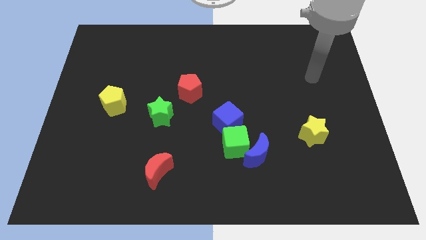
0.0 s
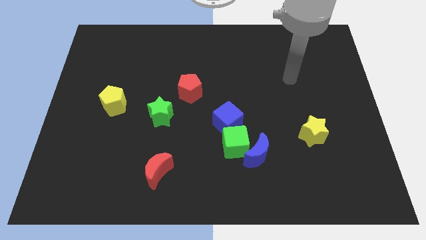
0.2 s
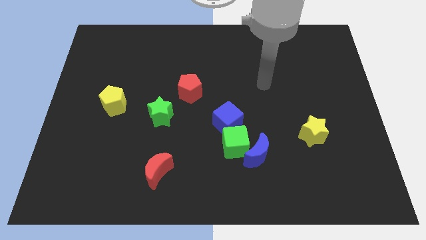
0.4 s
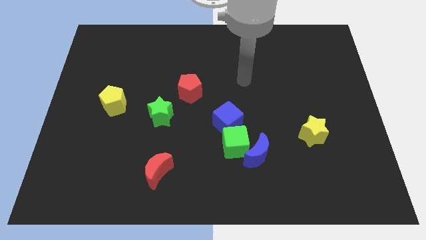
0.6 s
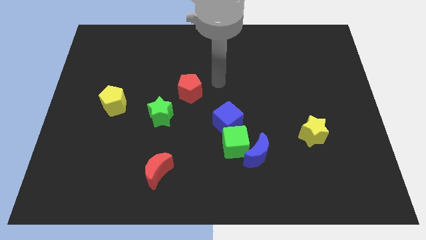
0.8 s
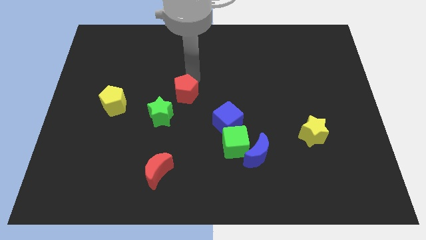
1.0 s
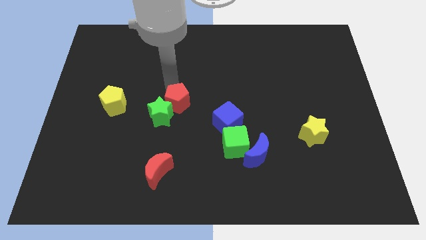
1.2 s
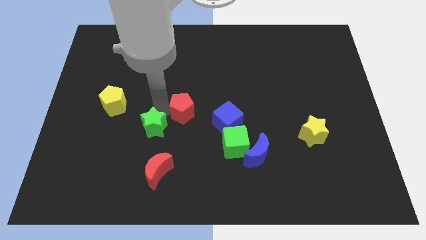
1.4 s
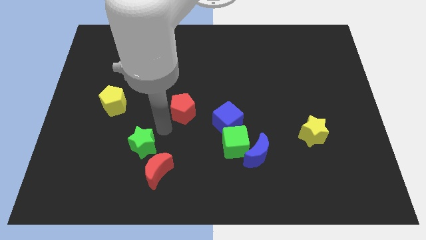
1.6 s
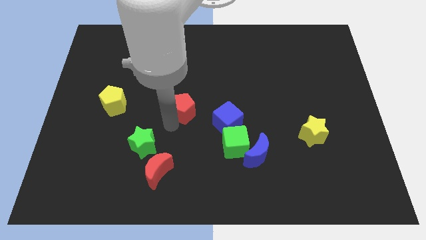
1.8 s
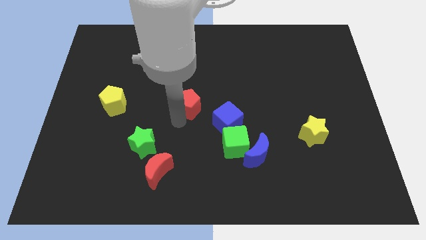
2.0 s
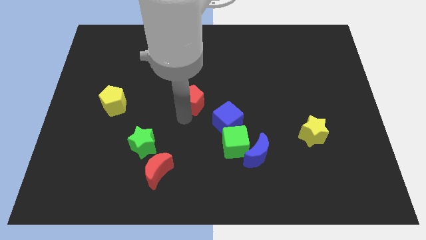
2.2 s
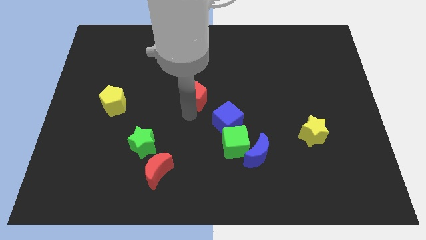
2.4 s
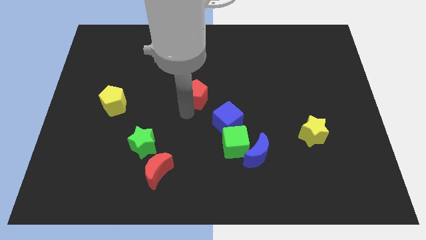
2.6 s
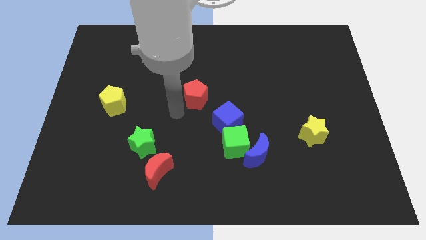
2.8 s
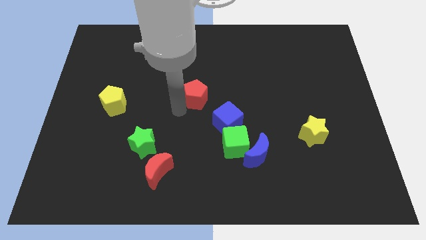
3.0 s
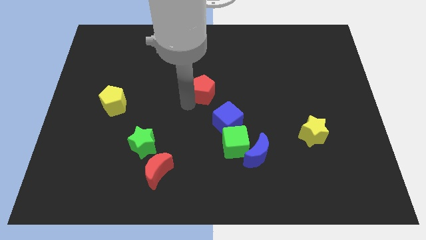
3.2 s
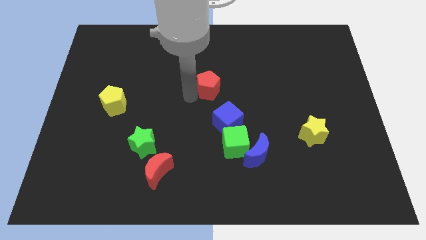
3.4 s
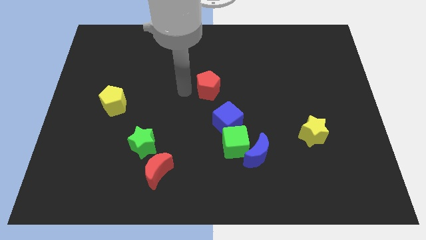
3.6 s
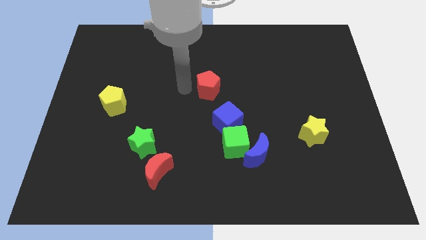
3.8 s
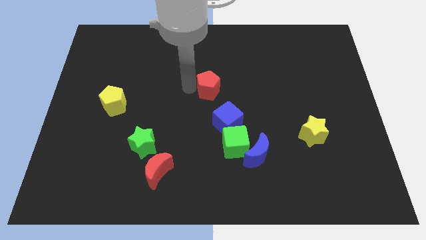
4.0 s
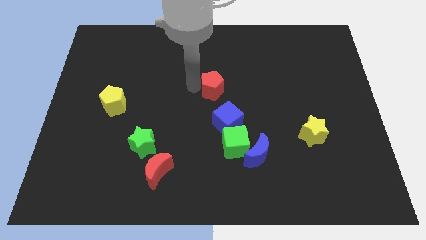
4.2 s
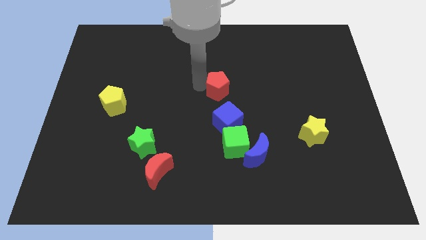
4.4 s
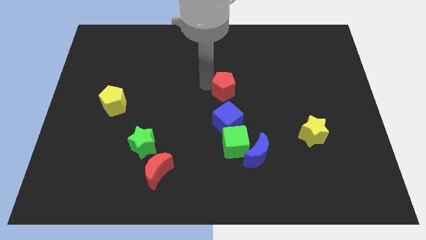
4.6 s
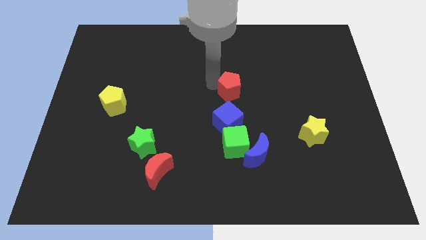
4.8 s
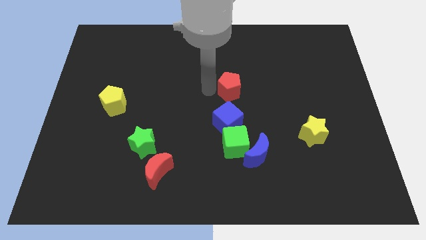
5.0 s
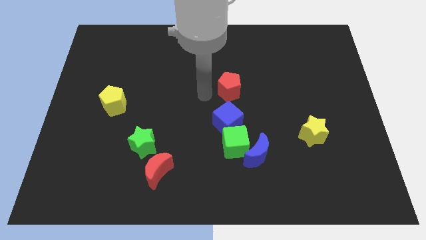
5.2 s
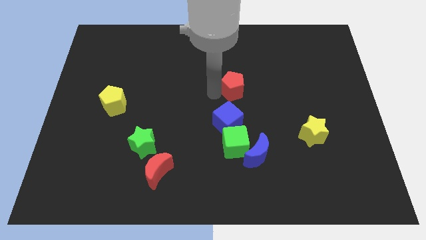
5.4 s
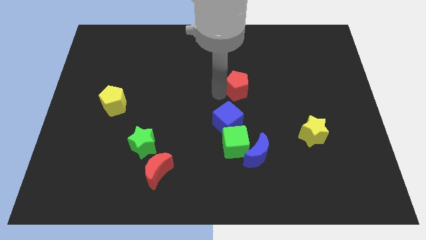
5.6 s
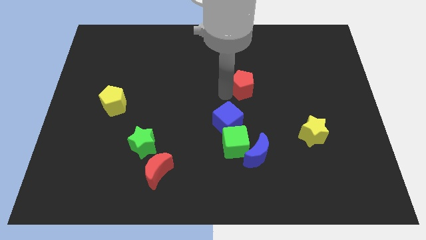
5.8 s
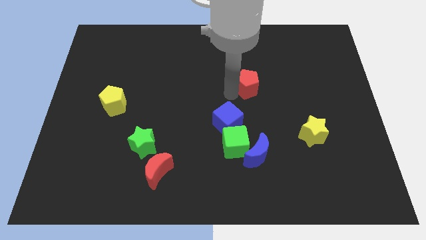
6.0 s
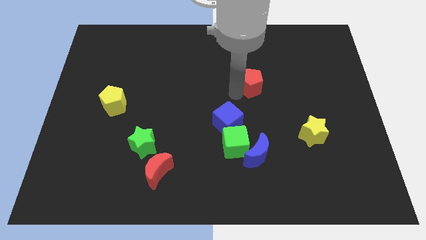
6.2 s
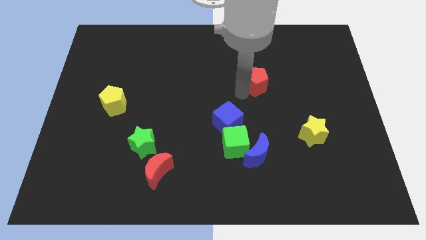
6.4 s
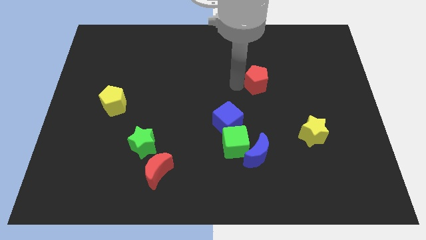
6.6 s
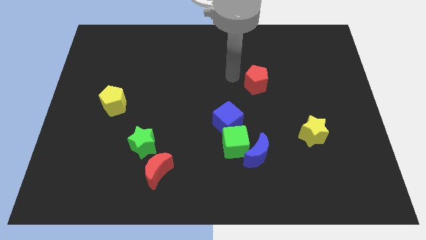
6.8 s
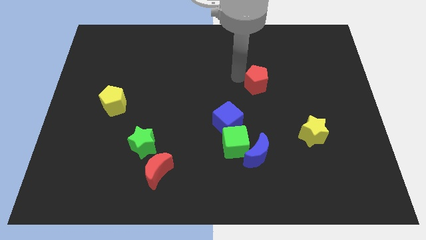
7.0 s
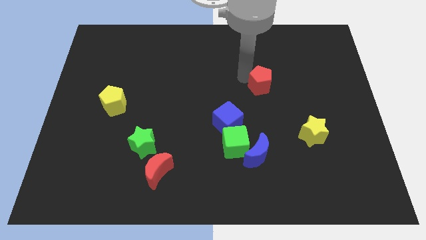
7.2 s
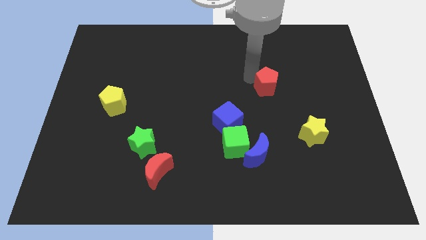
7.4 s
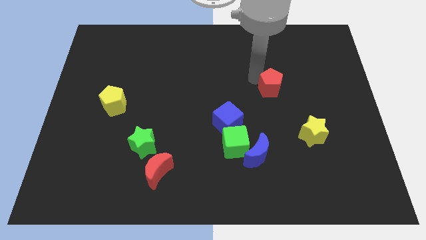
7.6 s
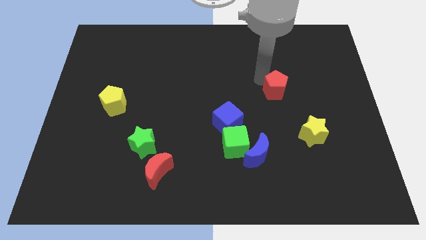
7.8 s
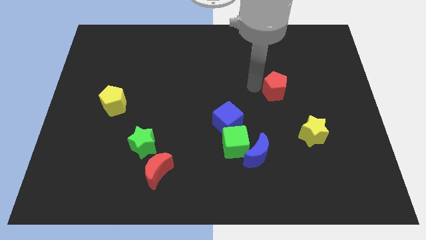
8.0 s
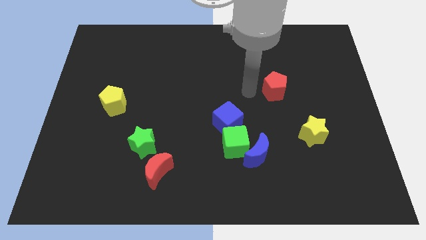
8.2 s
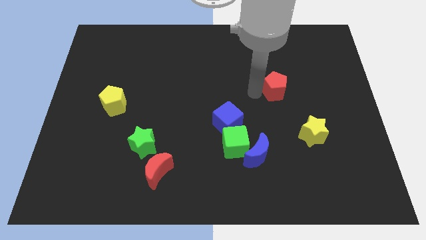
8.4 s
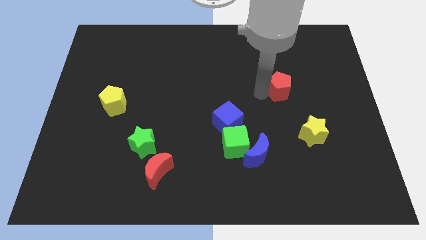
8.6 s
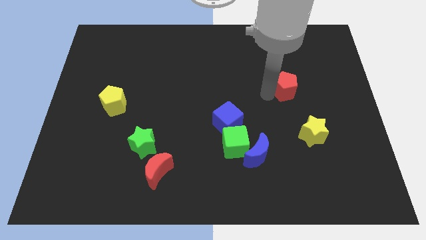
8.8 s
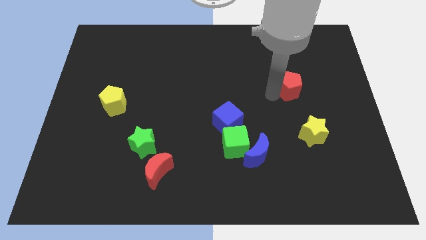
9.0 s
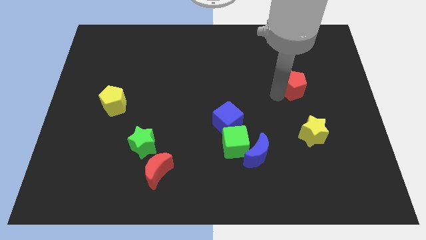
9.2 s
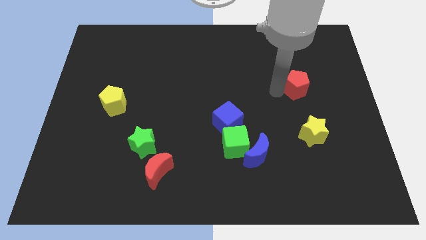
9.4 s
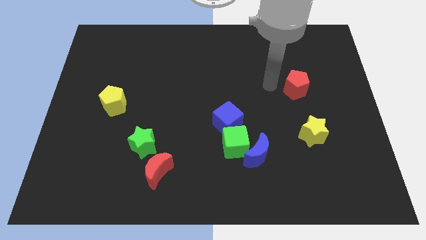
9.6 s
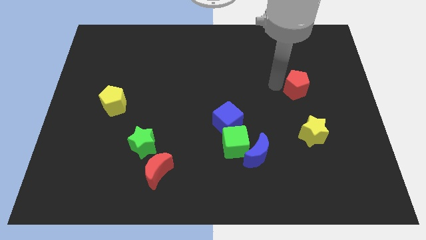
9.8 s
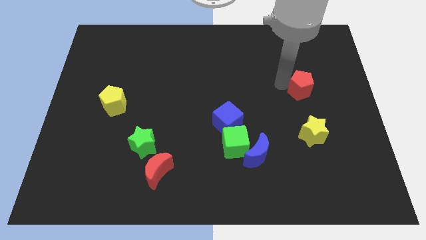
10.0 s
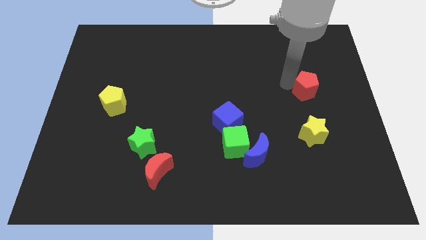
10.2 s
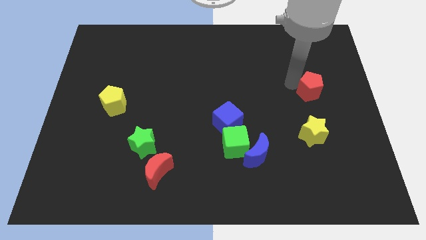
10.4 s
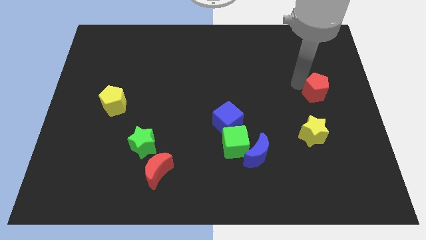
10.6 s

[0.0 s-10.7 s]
slide the red pentagon to the center right
